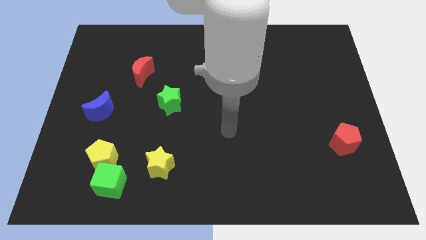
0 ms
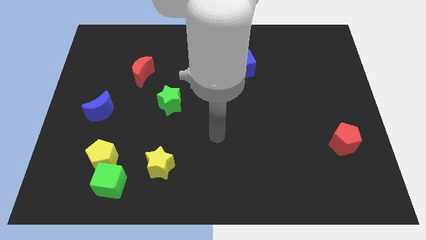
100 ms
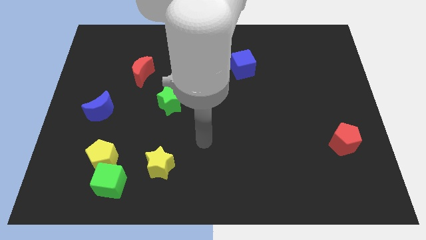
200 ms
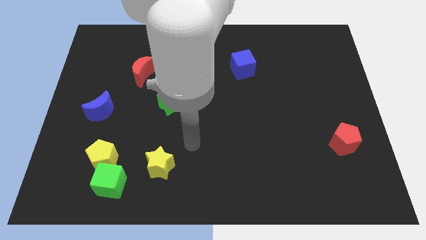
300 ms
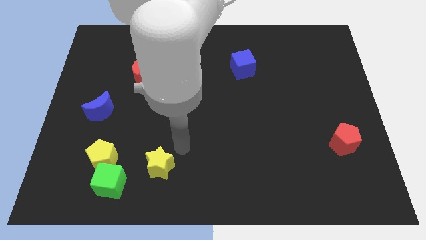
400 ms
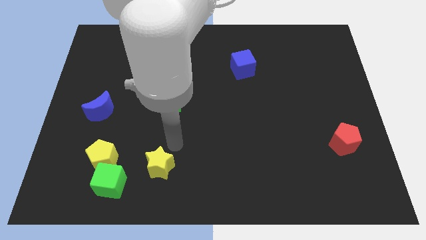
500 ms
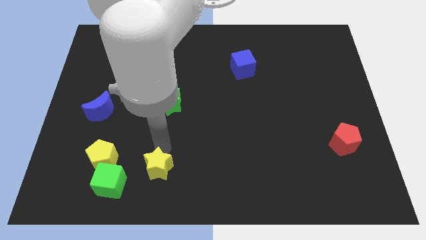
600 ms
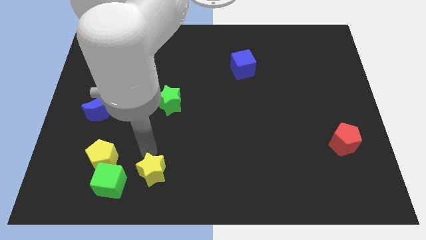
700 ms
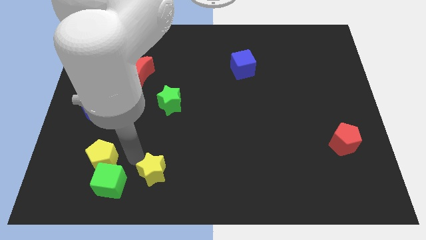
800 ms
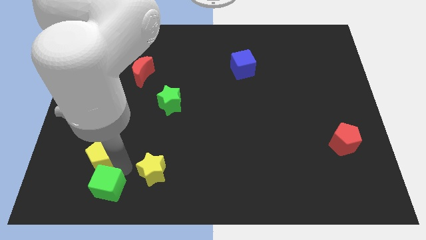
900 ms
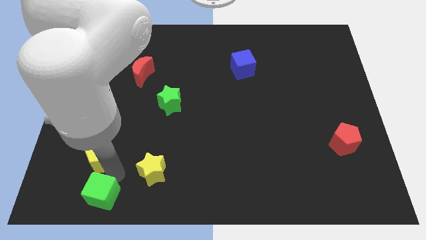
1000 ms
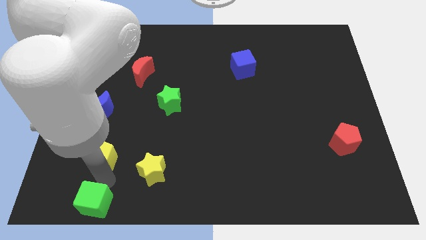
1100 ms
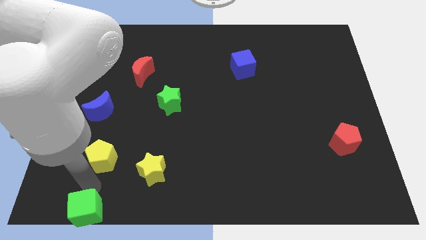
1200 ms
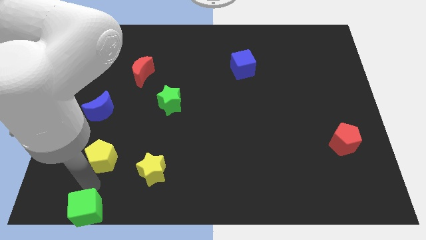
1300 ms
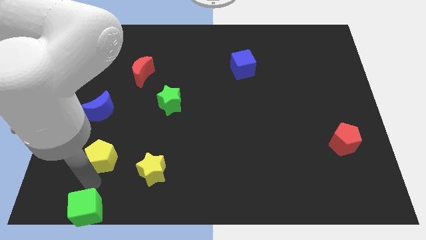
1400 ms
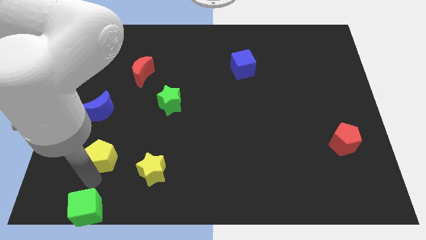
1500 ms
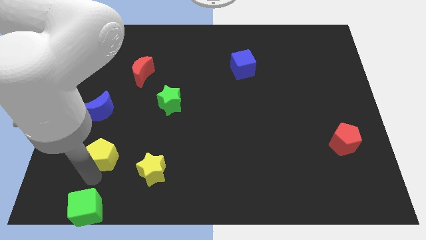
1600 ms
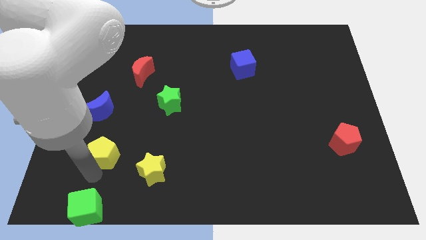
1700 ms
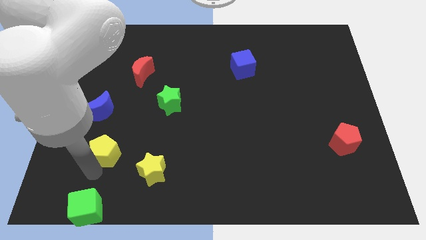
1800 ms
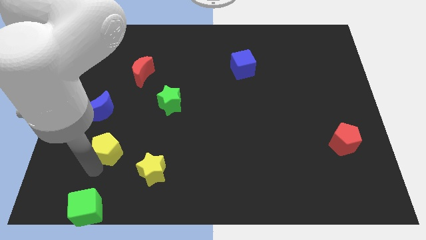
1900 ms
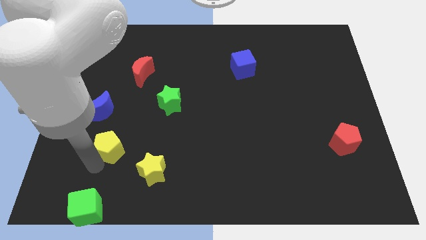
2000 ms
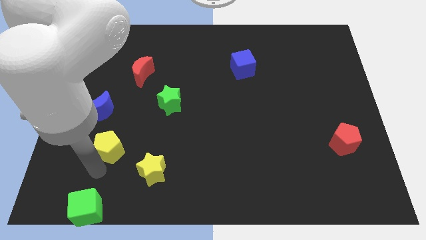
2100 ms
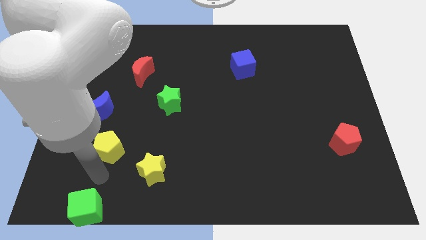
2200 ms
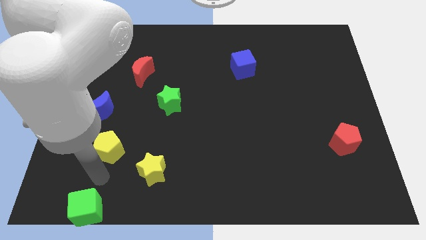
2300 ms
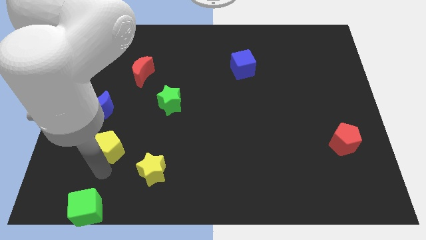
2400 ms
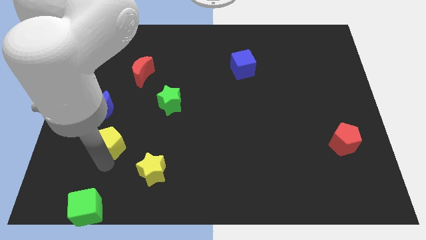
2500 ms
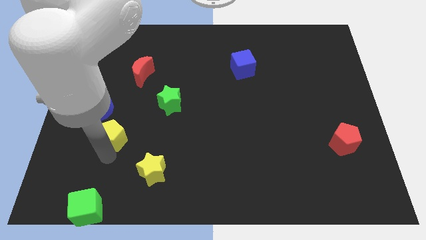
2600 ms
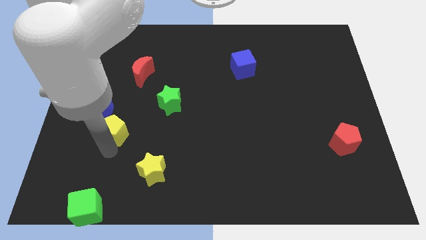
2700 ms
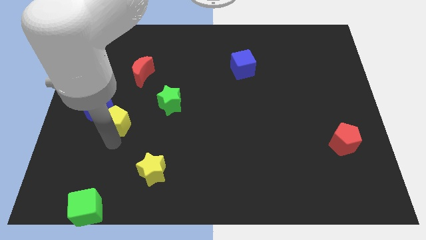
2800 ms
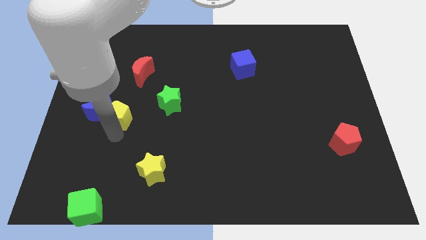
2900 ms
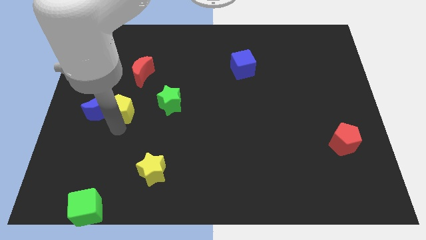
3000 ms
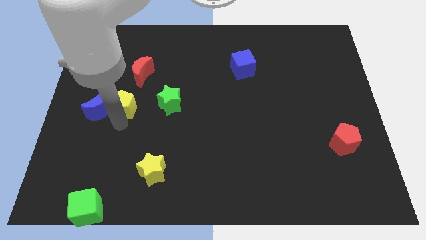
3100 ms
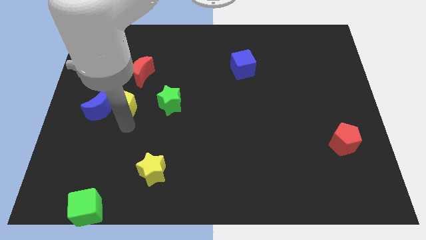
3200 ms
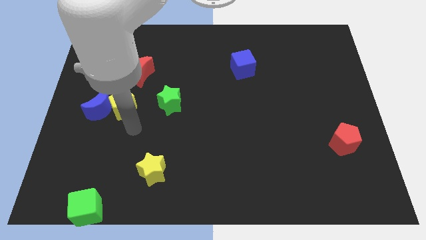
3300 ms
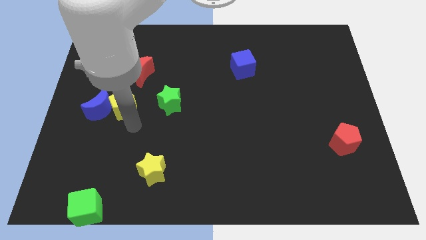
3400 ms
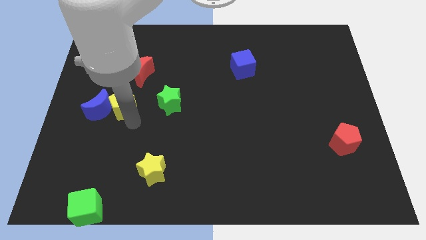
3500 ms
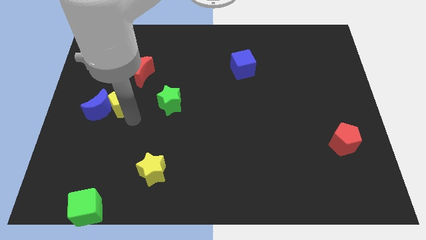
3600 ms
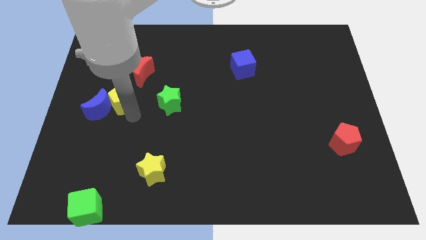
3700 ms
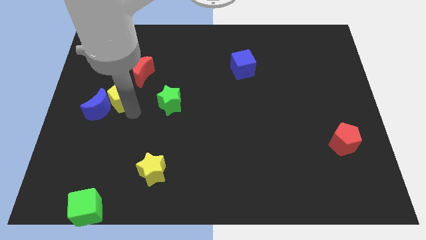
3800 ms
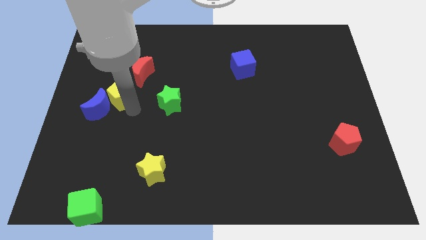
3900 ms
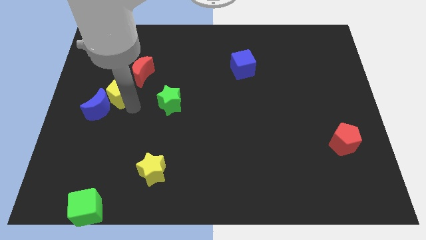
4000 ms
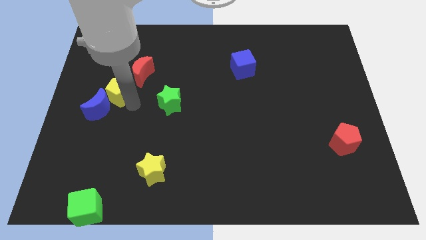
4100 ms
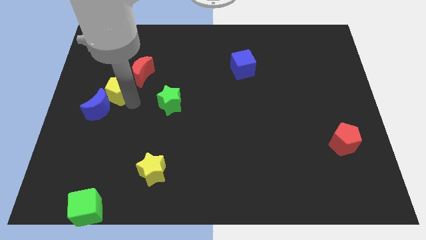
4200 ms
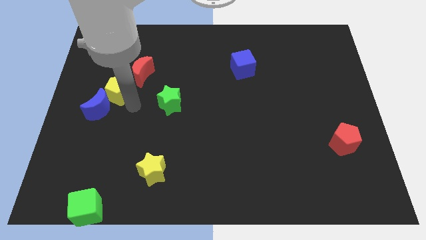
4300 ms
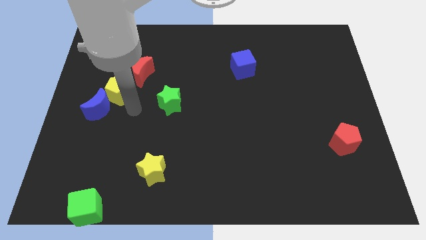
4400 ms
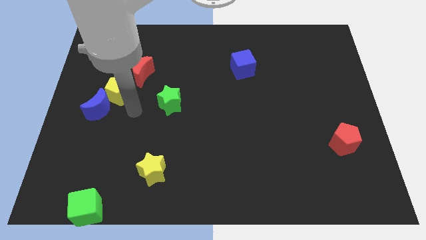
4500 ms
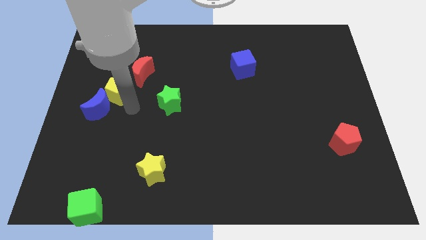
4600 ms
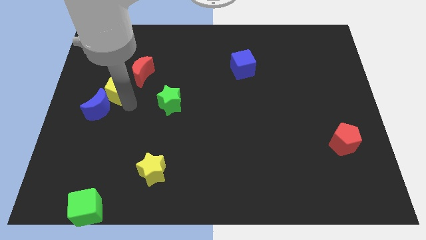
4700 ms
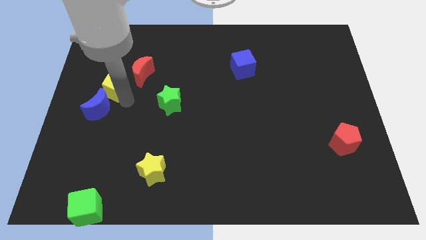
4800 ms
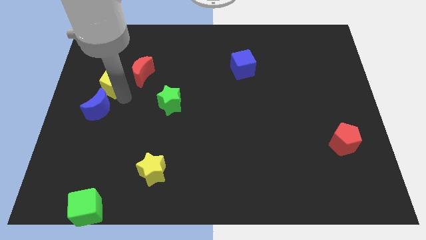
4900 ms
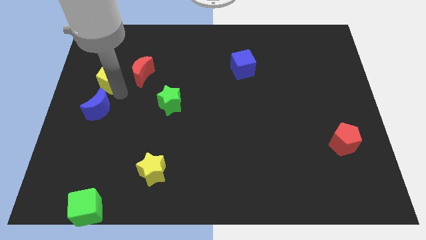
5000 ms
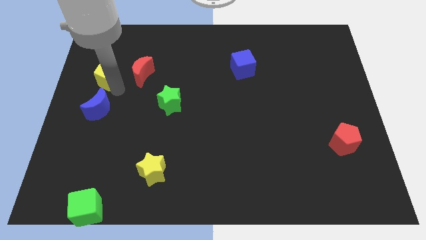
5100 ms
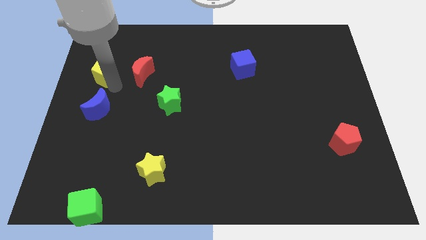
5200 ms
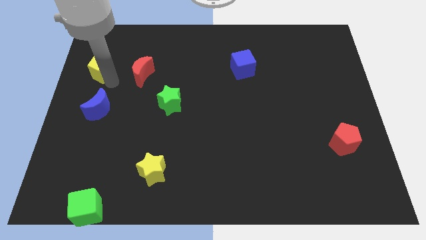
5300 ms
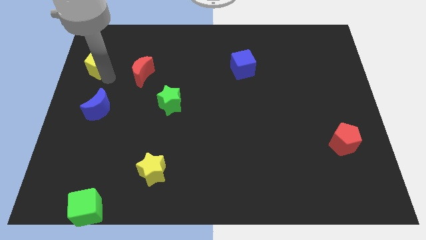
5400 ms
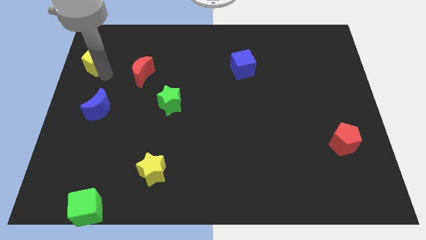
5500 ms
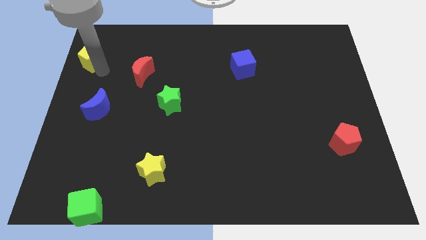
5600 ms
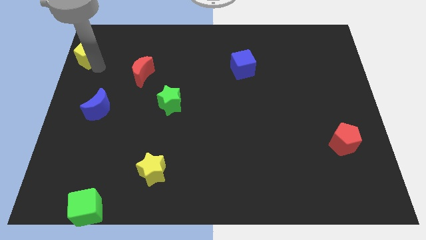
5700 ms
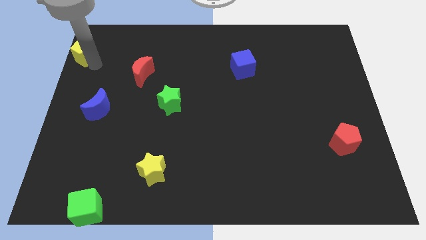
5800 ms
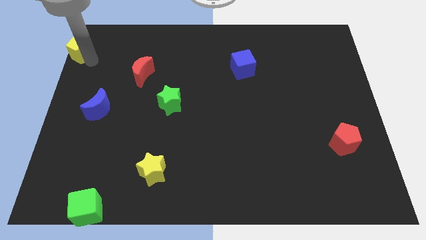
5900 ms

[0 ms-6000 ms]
slide the yellow pentagon to the top left of the board
